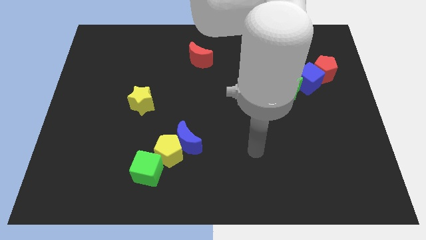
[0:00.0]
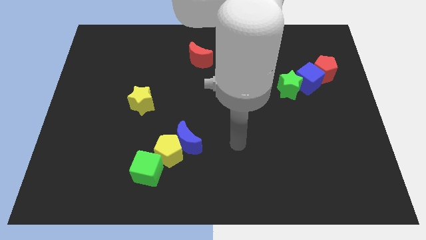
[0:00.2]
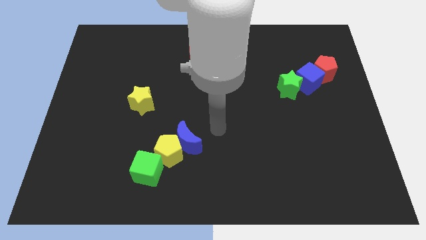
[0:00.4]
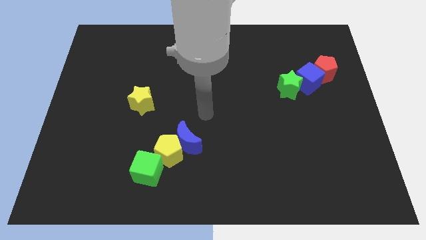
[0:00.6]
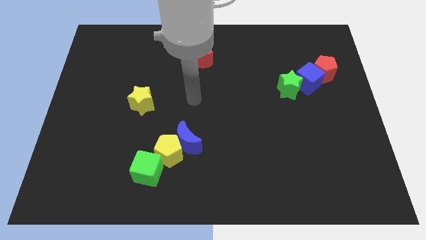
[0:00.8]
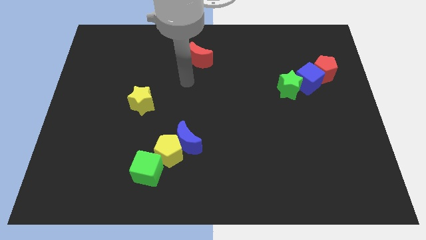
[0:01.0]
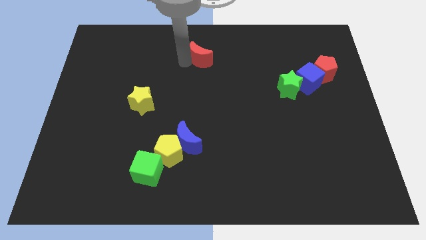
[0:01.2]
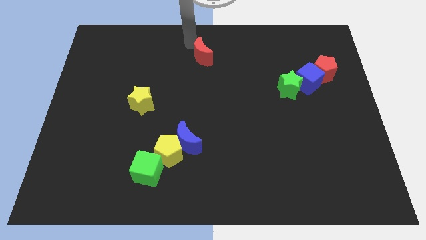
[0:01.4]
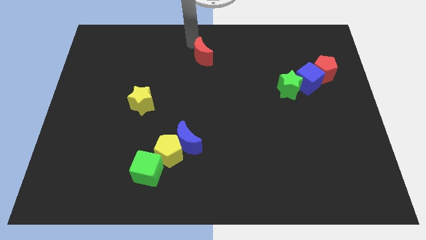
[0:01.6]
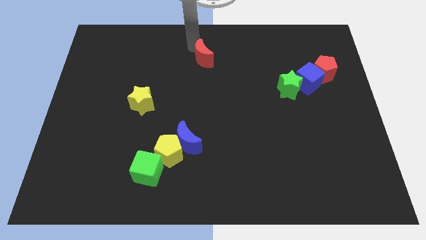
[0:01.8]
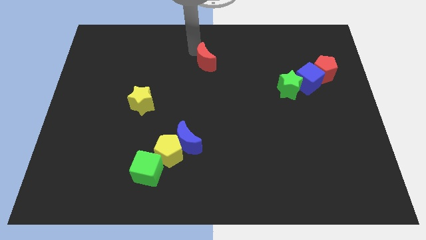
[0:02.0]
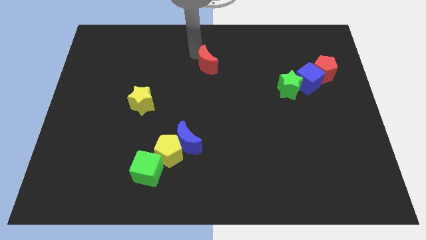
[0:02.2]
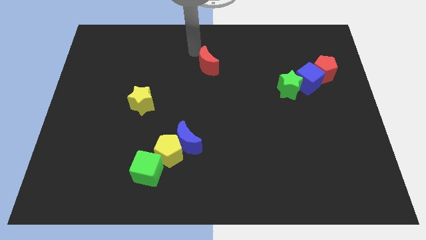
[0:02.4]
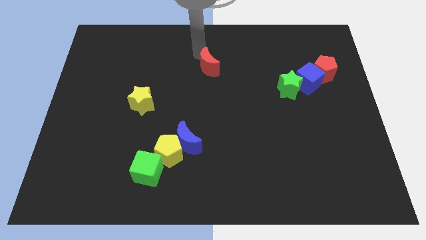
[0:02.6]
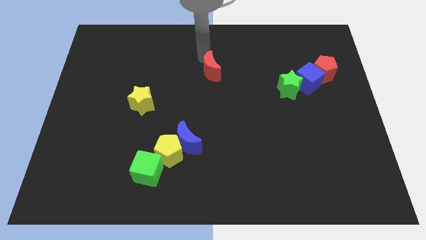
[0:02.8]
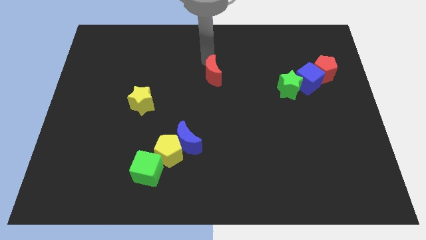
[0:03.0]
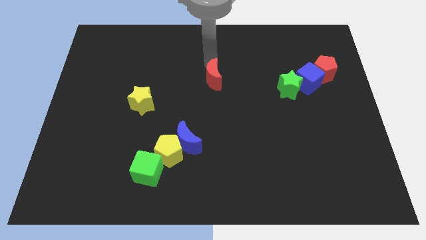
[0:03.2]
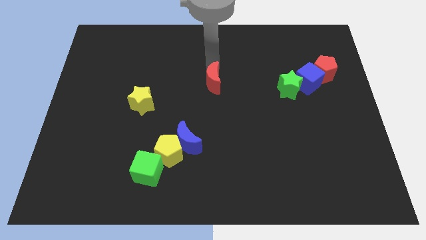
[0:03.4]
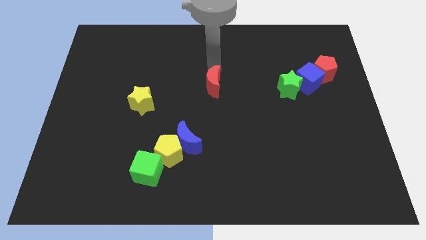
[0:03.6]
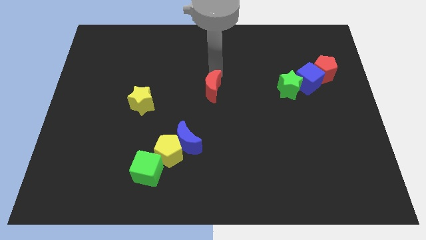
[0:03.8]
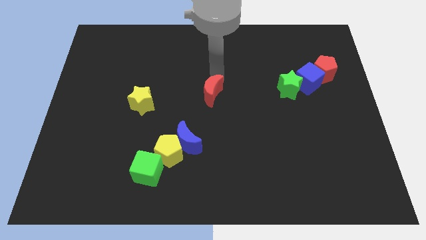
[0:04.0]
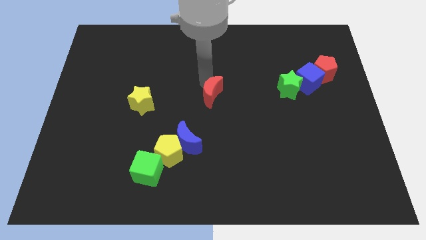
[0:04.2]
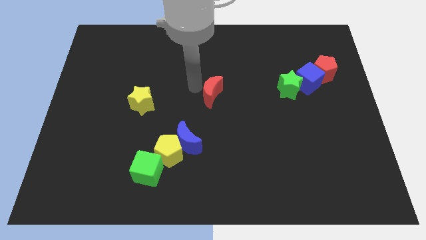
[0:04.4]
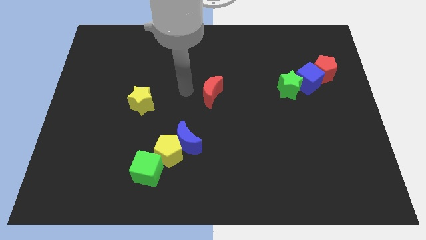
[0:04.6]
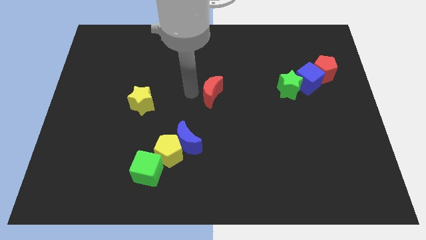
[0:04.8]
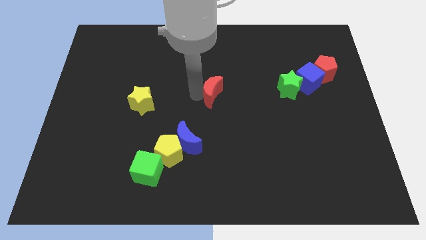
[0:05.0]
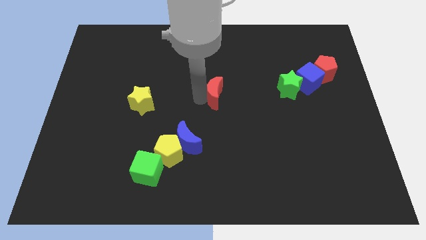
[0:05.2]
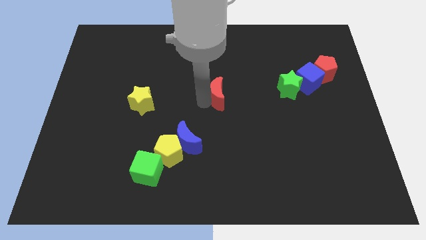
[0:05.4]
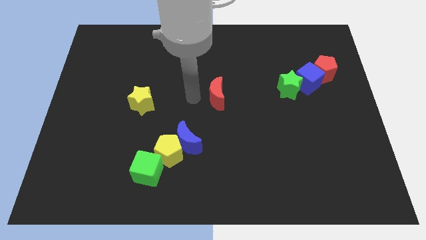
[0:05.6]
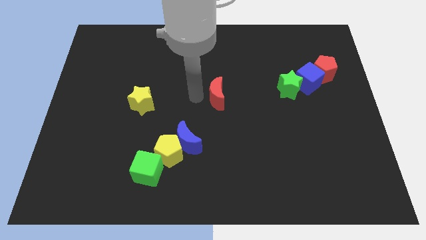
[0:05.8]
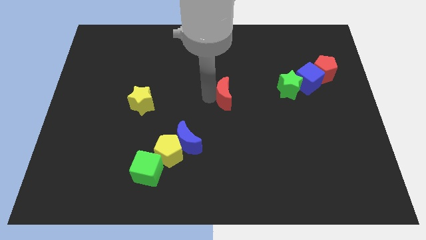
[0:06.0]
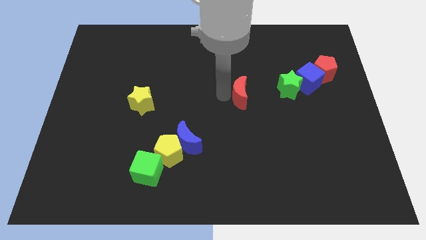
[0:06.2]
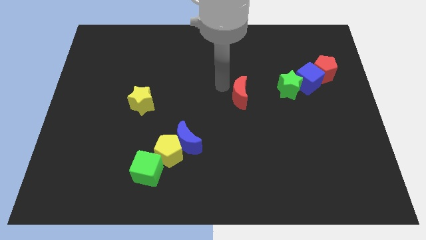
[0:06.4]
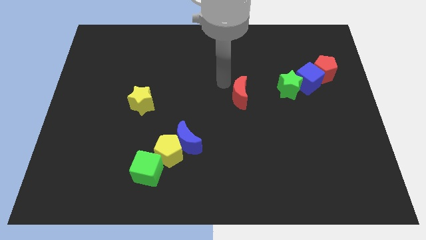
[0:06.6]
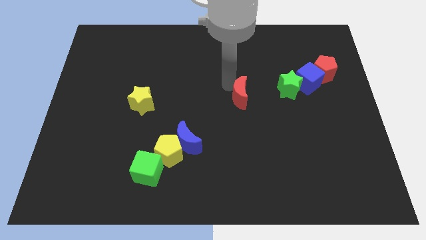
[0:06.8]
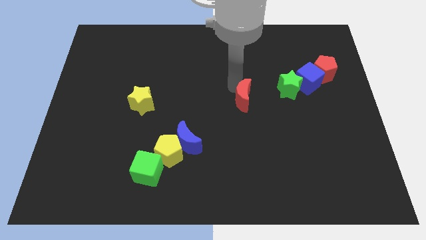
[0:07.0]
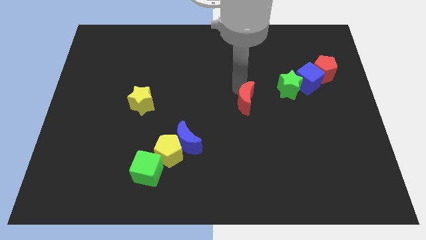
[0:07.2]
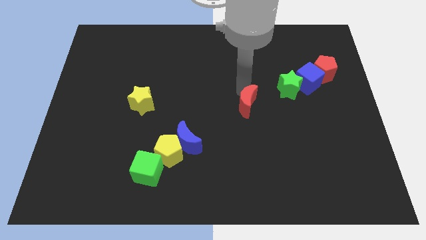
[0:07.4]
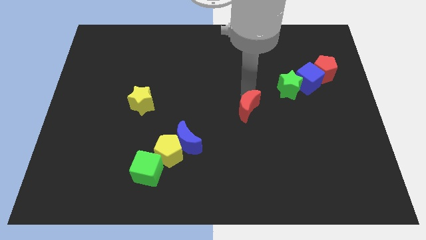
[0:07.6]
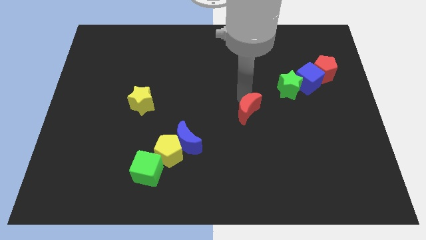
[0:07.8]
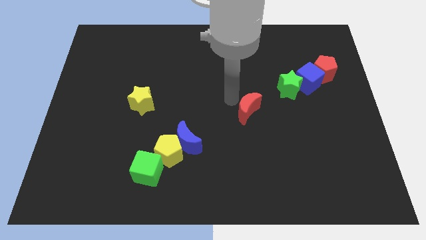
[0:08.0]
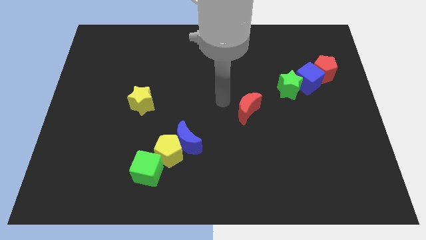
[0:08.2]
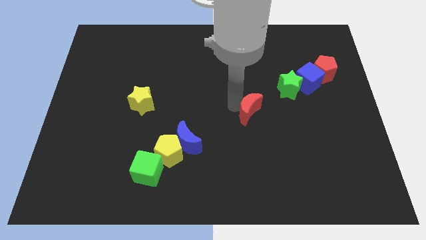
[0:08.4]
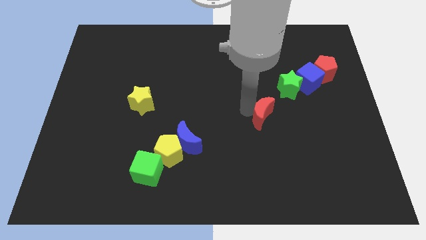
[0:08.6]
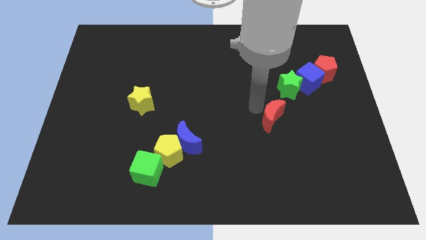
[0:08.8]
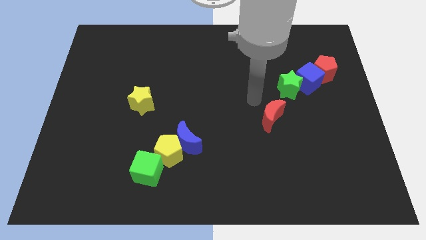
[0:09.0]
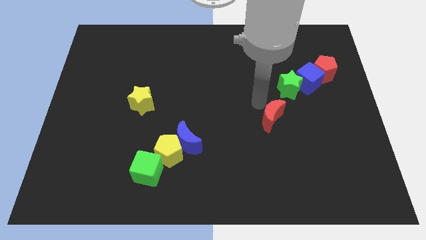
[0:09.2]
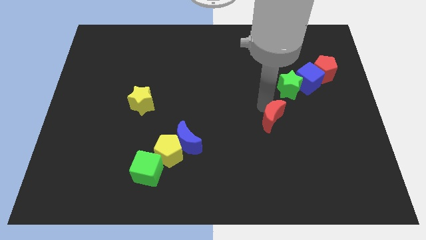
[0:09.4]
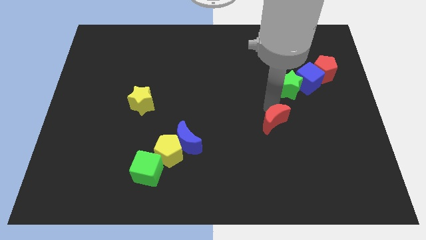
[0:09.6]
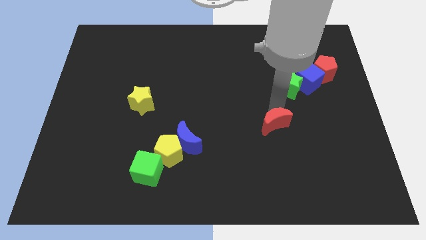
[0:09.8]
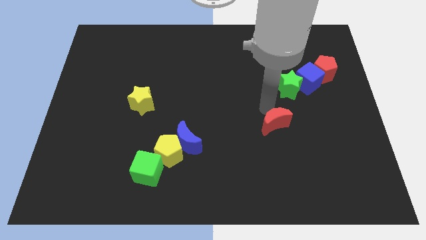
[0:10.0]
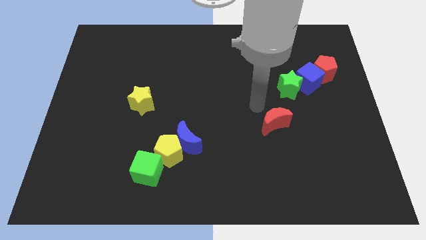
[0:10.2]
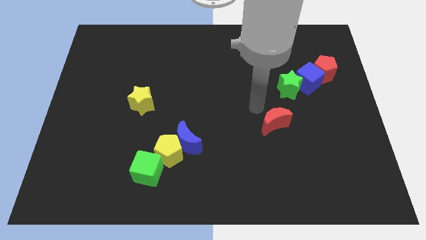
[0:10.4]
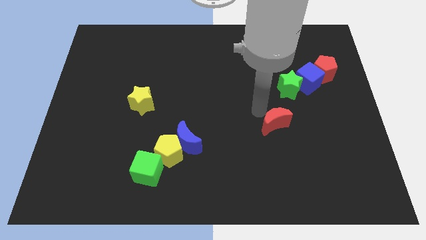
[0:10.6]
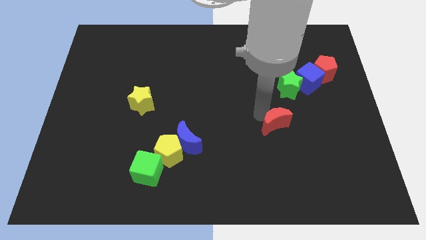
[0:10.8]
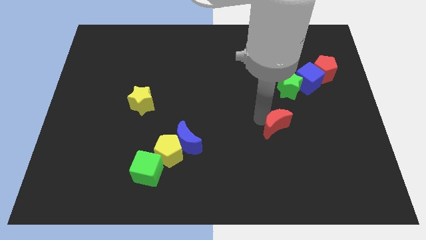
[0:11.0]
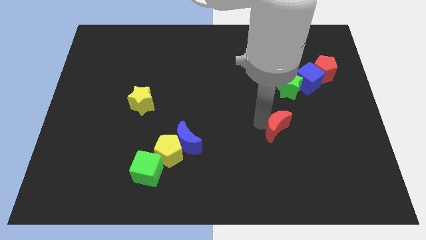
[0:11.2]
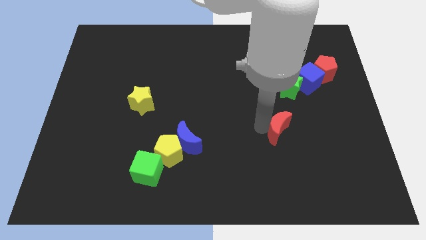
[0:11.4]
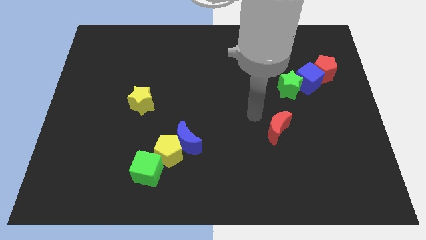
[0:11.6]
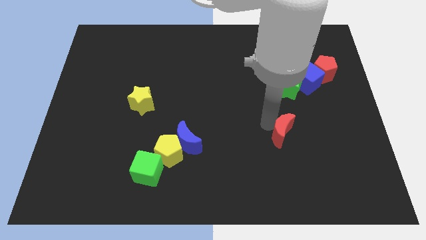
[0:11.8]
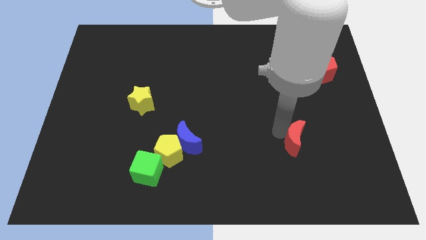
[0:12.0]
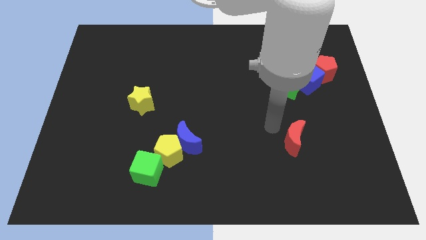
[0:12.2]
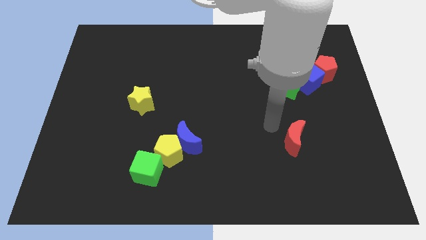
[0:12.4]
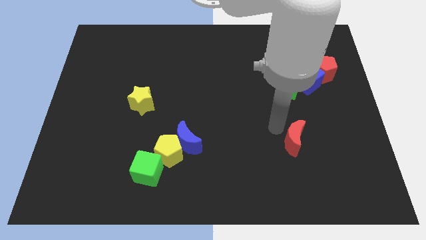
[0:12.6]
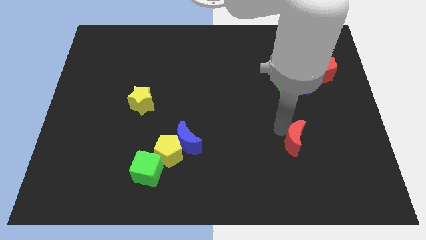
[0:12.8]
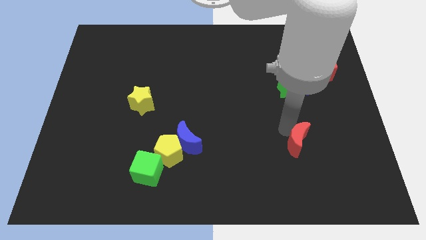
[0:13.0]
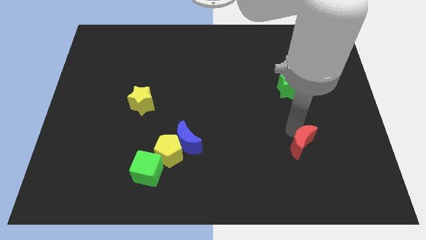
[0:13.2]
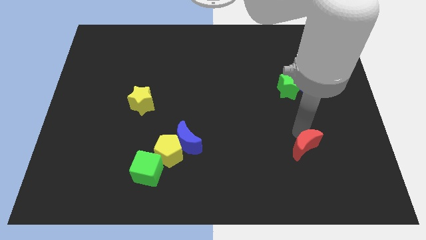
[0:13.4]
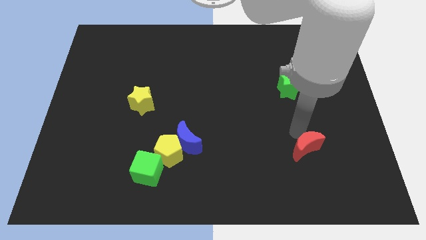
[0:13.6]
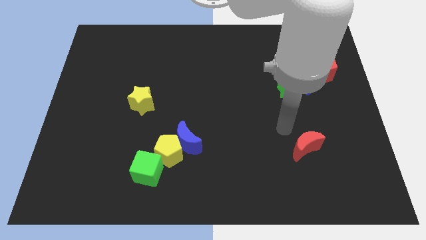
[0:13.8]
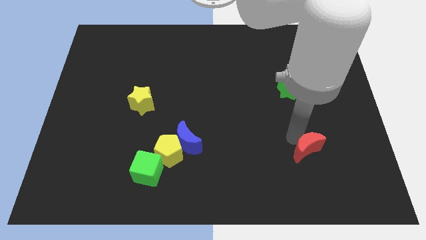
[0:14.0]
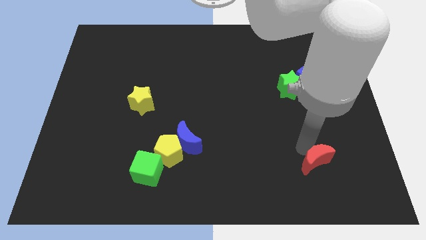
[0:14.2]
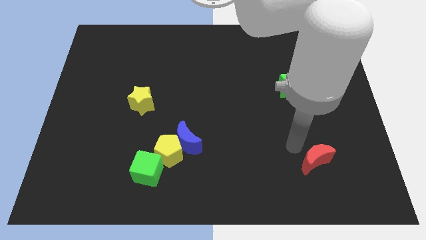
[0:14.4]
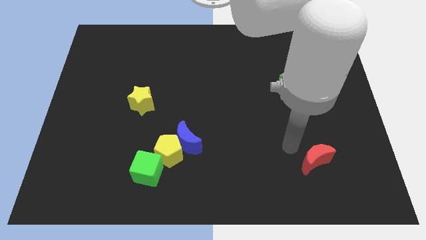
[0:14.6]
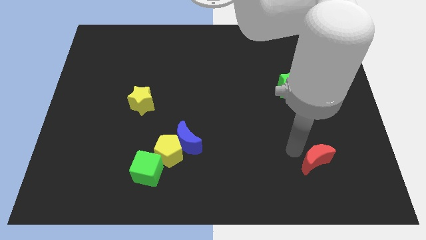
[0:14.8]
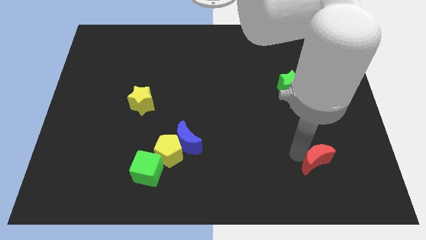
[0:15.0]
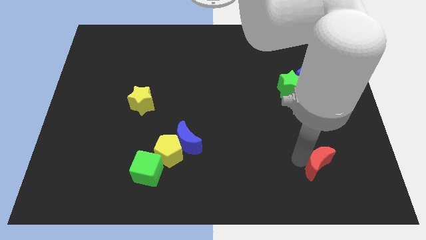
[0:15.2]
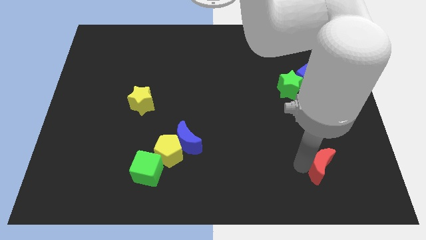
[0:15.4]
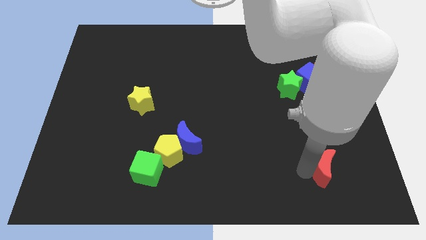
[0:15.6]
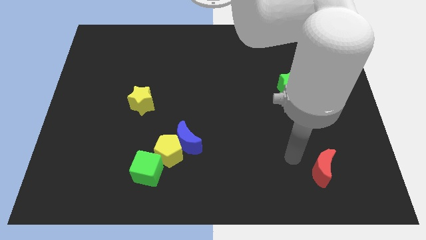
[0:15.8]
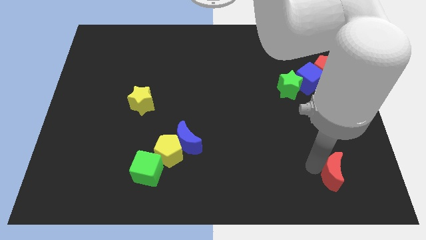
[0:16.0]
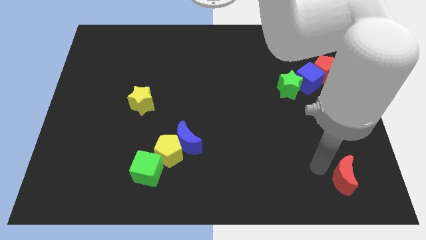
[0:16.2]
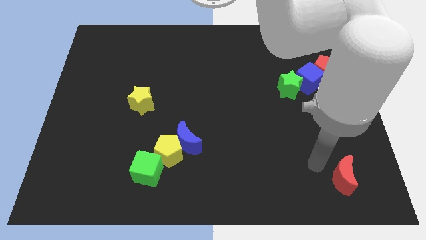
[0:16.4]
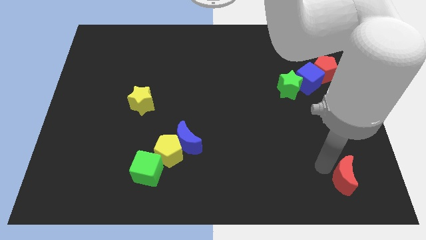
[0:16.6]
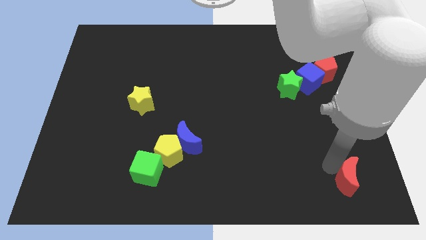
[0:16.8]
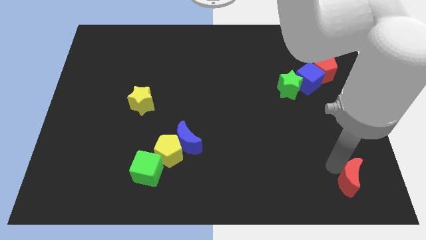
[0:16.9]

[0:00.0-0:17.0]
move the red moon to the bottom right
